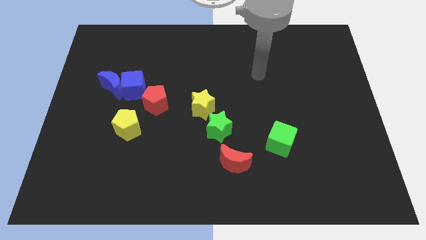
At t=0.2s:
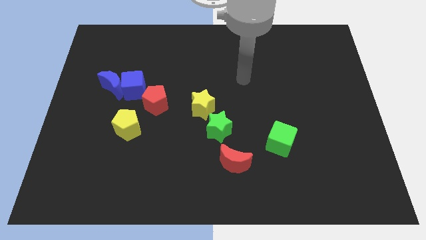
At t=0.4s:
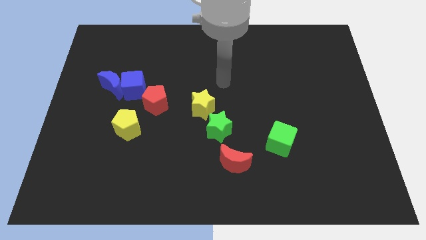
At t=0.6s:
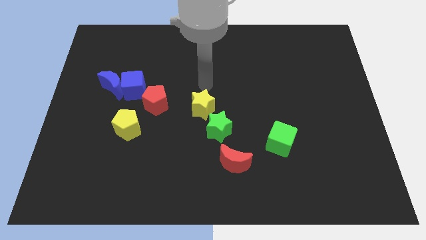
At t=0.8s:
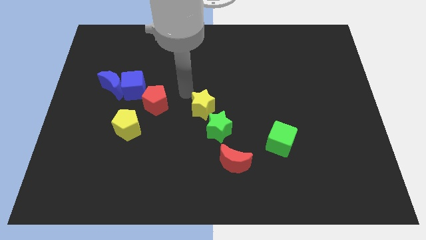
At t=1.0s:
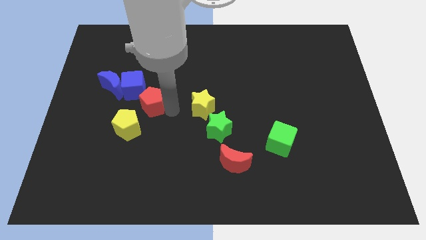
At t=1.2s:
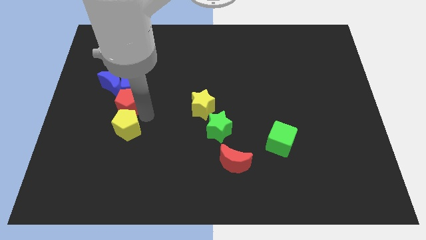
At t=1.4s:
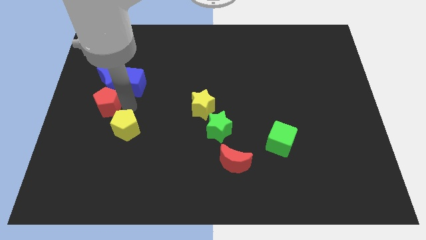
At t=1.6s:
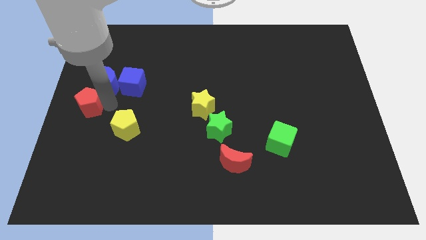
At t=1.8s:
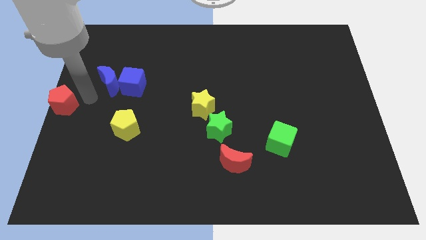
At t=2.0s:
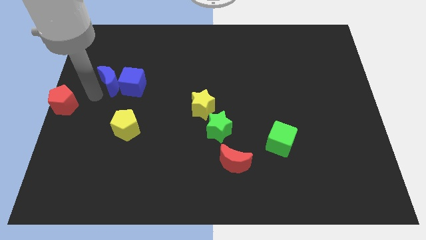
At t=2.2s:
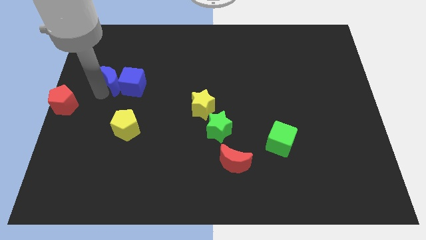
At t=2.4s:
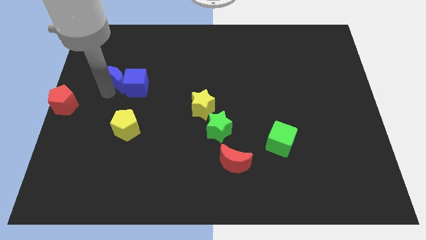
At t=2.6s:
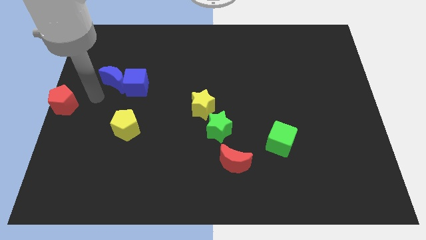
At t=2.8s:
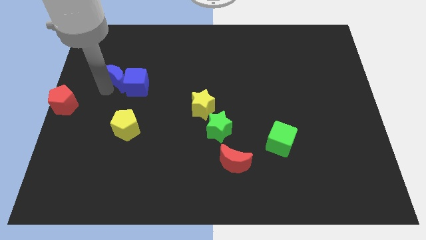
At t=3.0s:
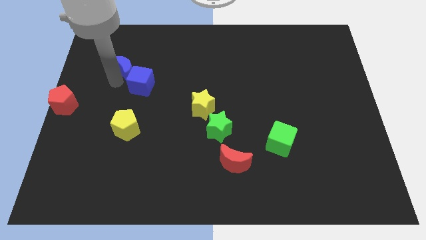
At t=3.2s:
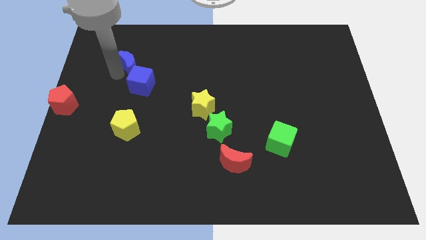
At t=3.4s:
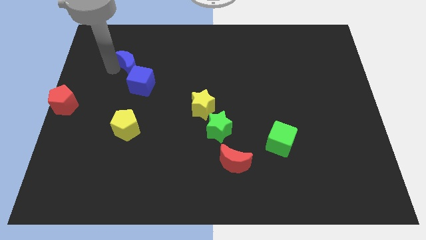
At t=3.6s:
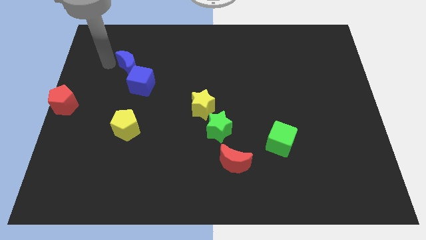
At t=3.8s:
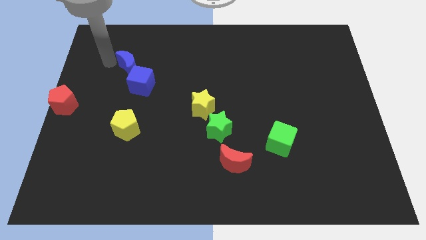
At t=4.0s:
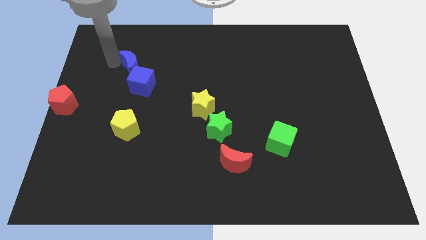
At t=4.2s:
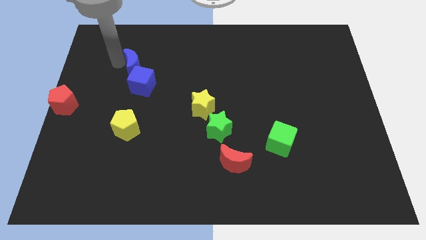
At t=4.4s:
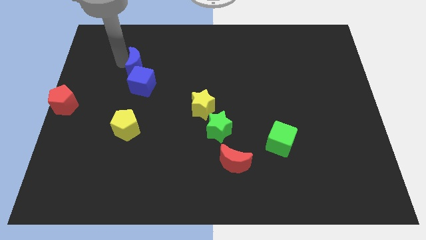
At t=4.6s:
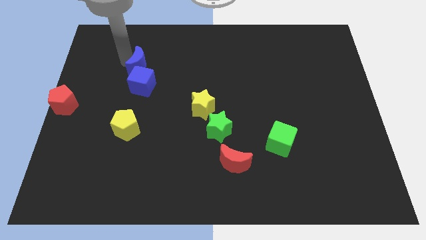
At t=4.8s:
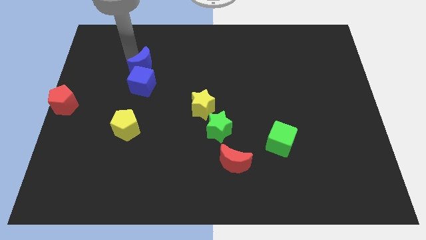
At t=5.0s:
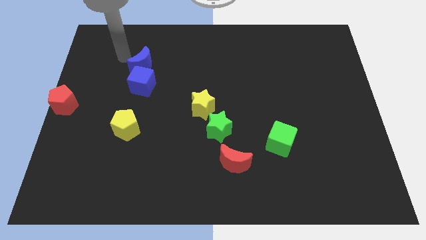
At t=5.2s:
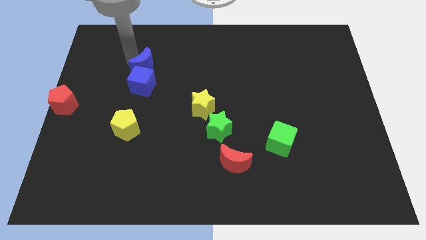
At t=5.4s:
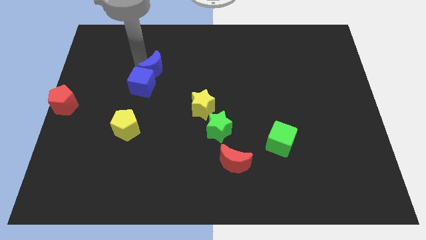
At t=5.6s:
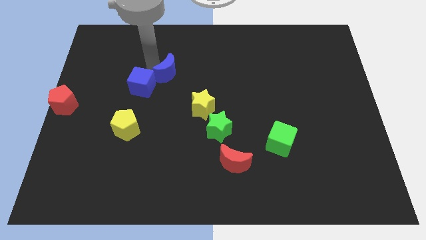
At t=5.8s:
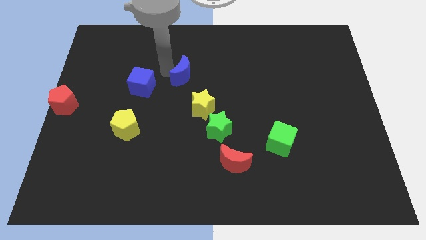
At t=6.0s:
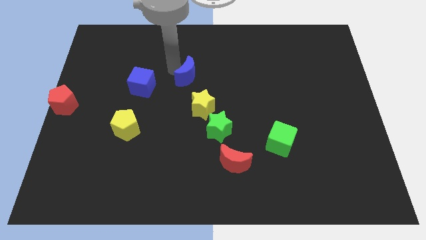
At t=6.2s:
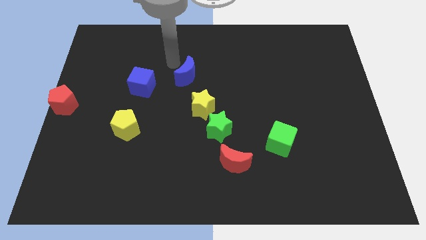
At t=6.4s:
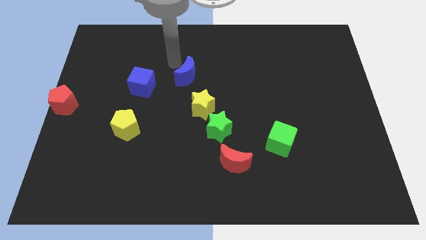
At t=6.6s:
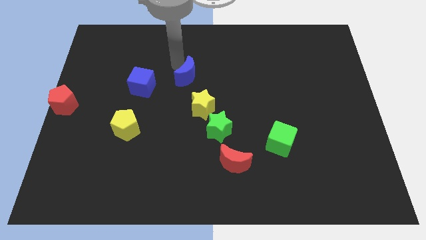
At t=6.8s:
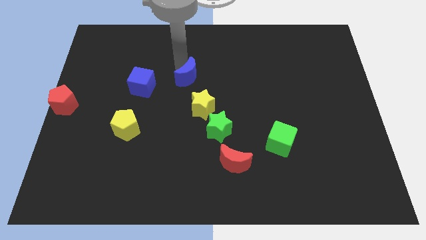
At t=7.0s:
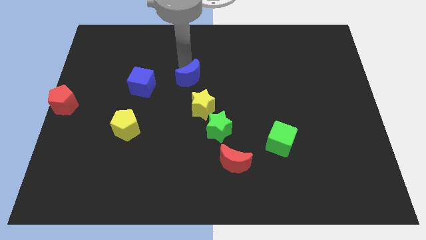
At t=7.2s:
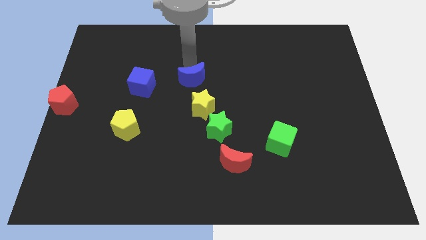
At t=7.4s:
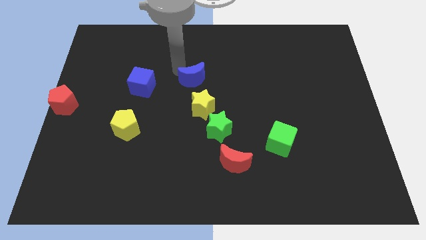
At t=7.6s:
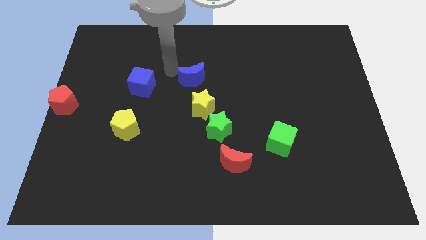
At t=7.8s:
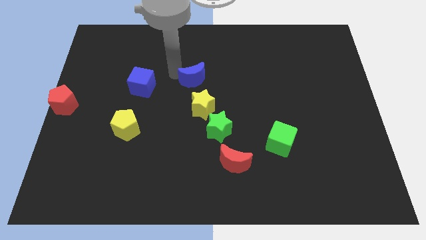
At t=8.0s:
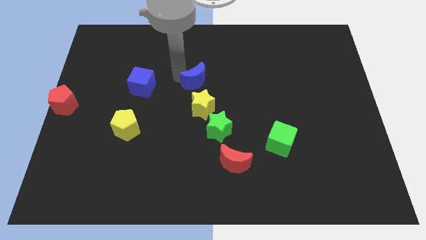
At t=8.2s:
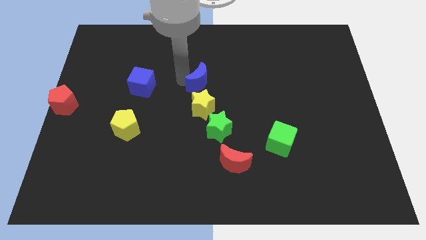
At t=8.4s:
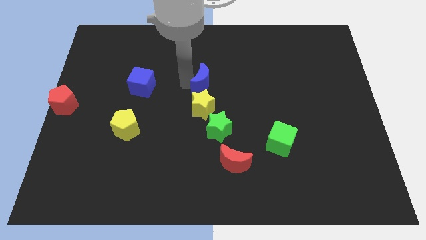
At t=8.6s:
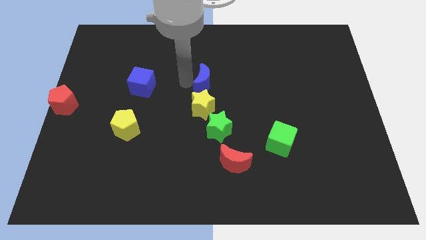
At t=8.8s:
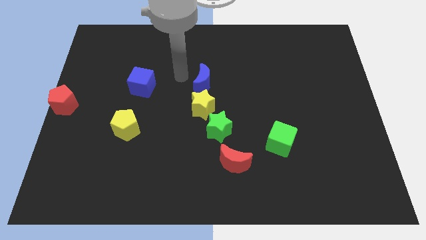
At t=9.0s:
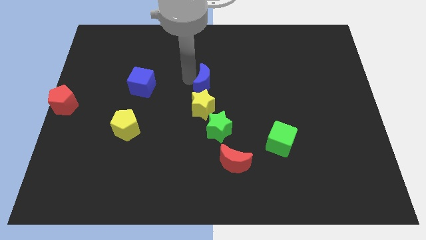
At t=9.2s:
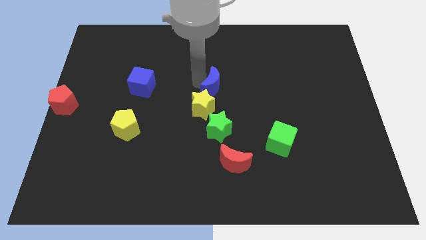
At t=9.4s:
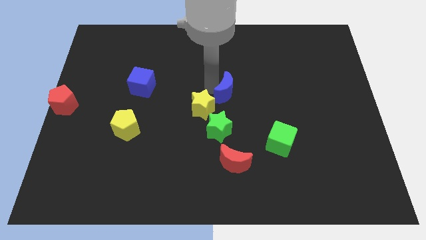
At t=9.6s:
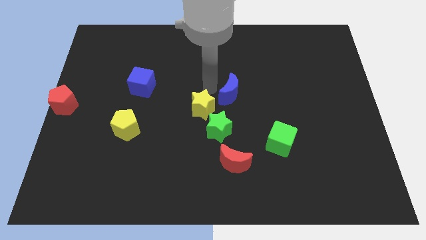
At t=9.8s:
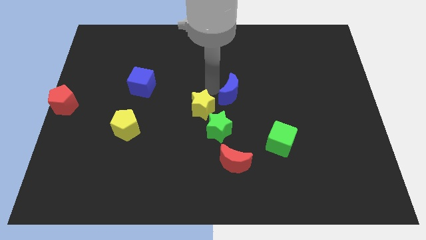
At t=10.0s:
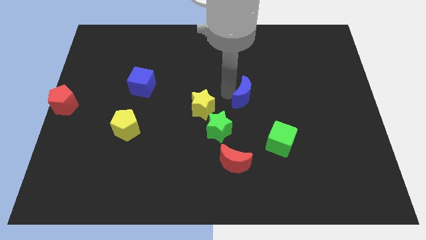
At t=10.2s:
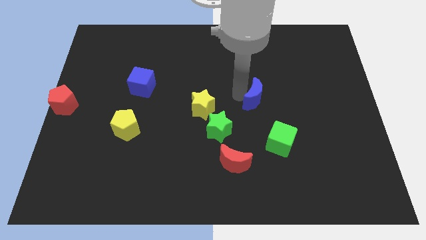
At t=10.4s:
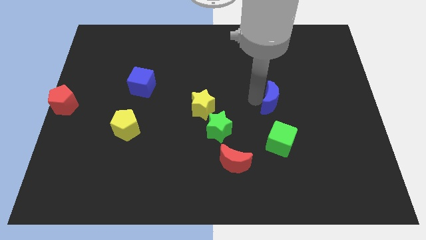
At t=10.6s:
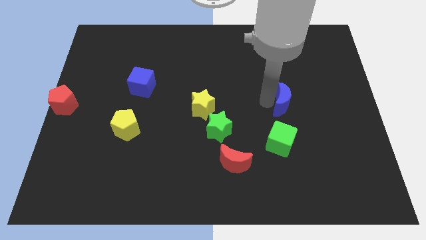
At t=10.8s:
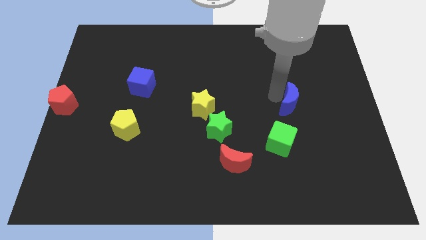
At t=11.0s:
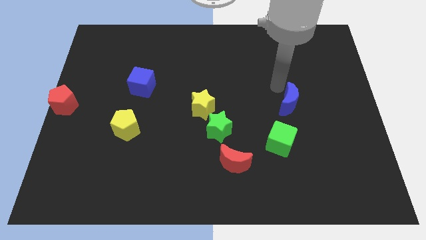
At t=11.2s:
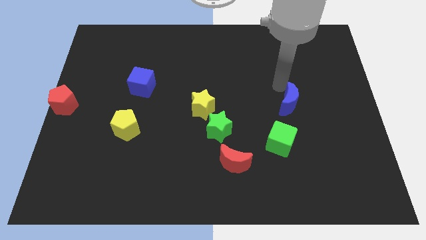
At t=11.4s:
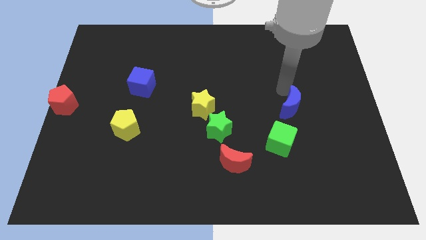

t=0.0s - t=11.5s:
push the blue moon to the top right of the green cube

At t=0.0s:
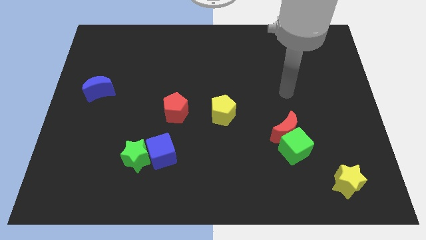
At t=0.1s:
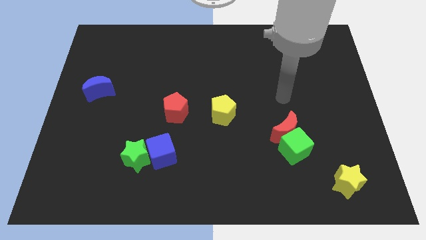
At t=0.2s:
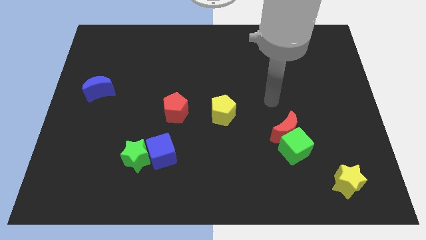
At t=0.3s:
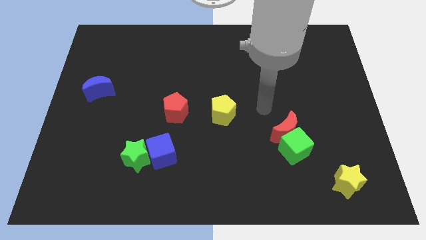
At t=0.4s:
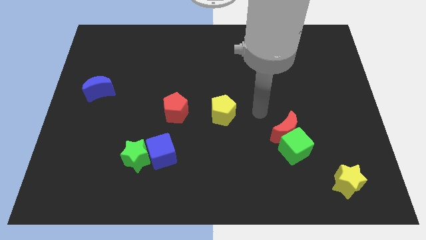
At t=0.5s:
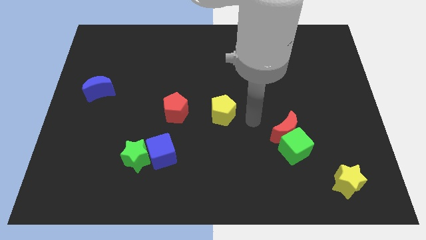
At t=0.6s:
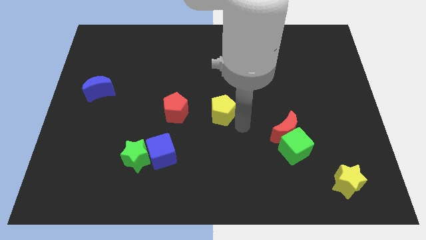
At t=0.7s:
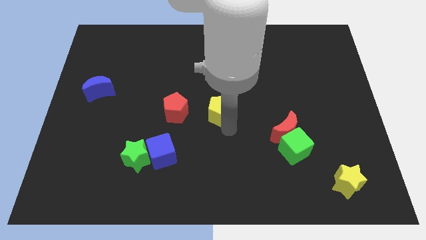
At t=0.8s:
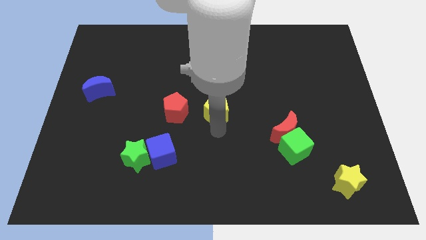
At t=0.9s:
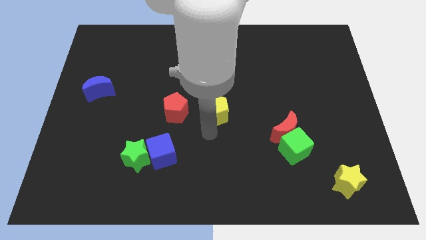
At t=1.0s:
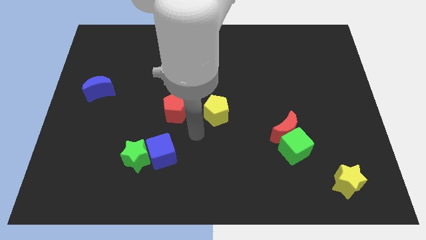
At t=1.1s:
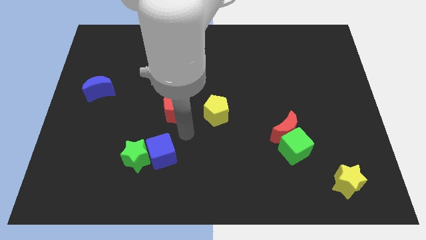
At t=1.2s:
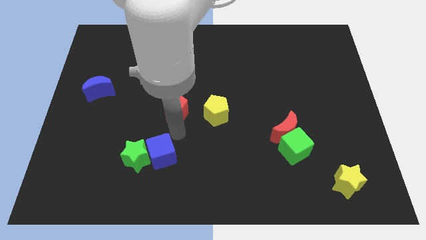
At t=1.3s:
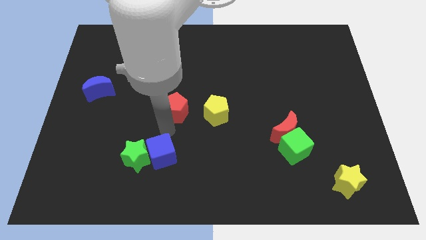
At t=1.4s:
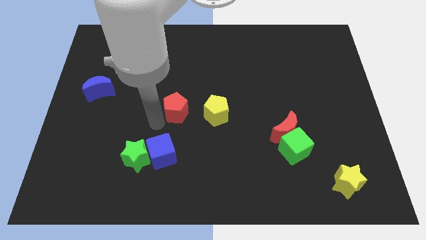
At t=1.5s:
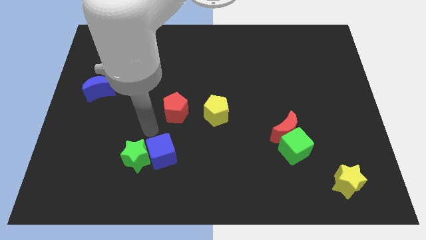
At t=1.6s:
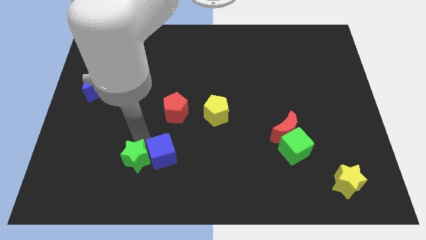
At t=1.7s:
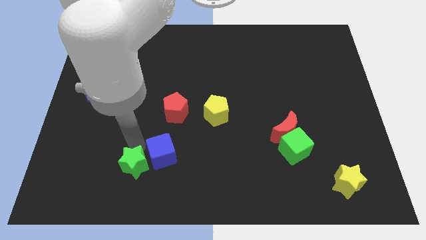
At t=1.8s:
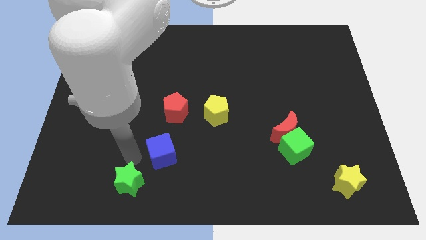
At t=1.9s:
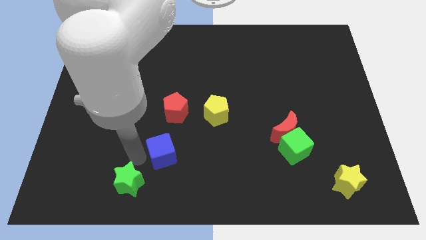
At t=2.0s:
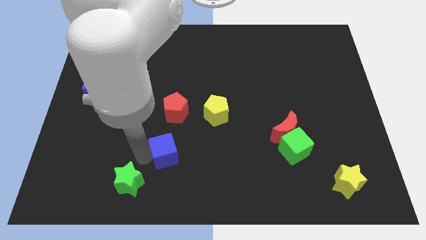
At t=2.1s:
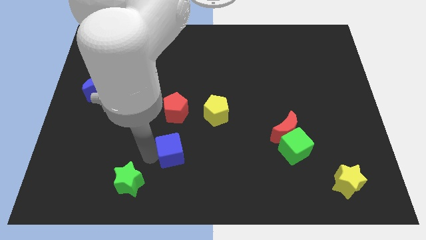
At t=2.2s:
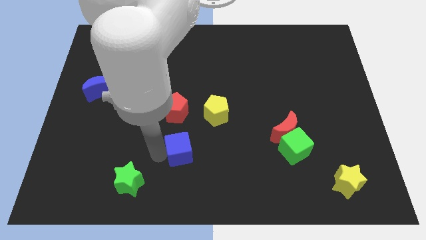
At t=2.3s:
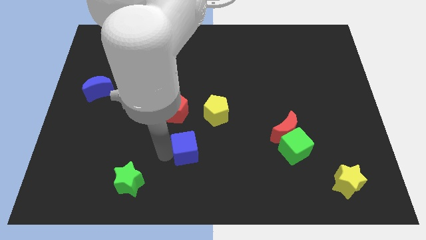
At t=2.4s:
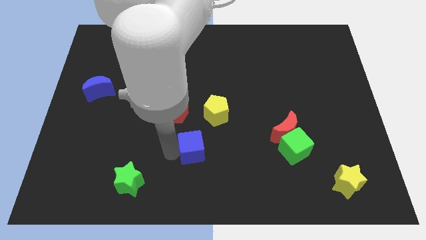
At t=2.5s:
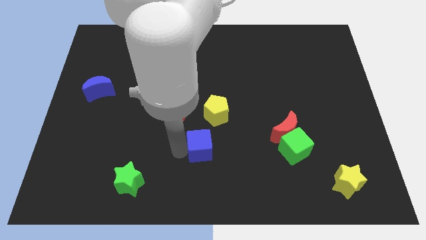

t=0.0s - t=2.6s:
move the blue cube below the yellow pentagon
